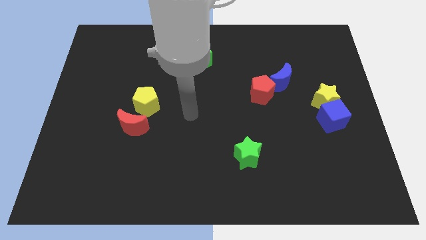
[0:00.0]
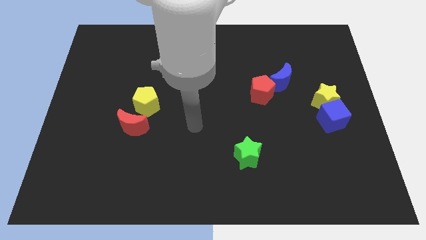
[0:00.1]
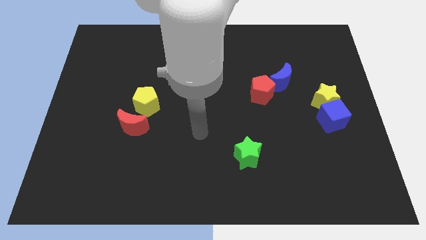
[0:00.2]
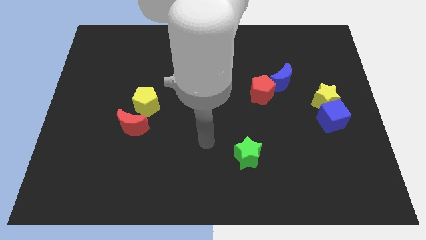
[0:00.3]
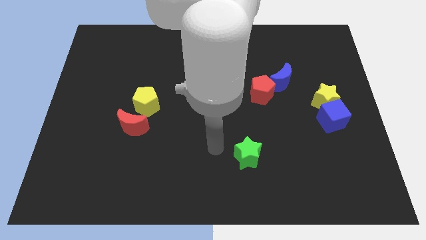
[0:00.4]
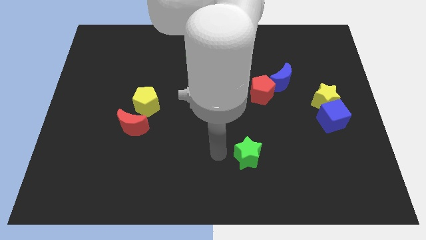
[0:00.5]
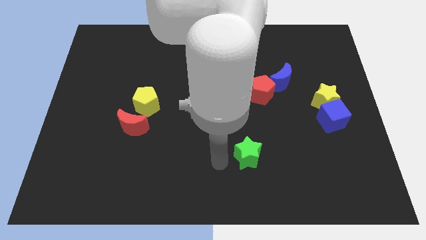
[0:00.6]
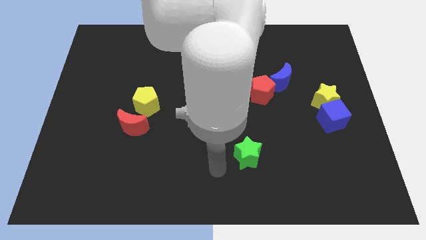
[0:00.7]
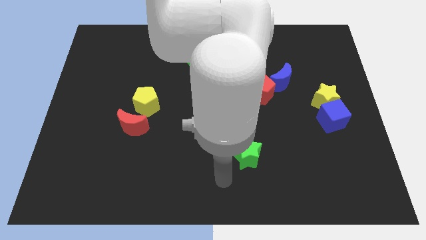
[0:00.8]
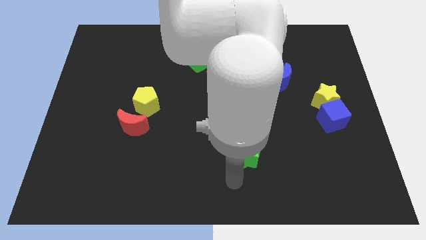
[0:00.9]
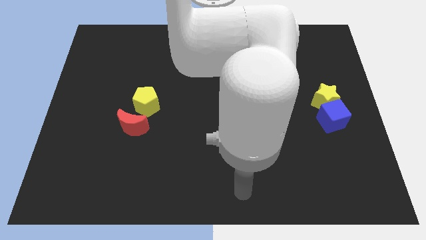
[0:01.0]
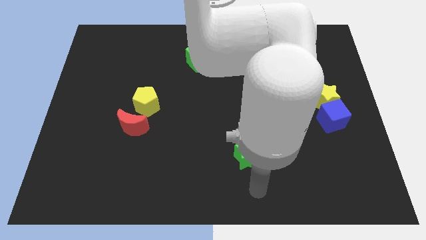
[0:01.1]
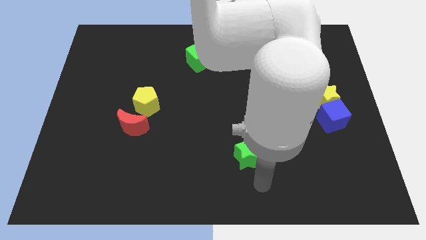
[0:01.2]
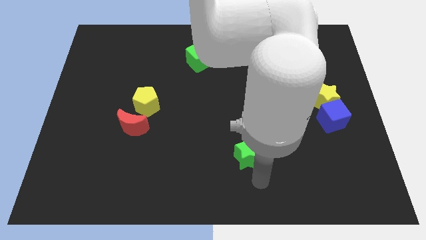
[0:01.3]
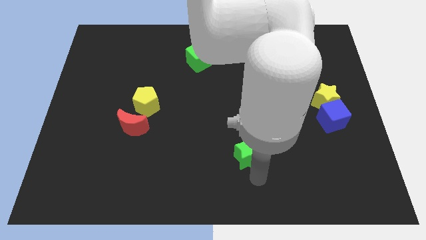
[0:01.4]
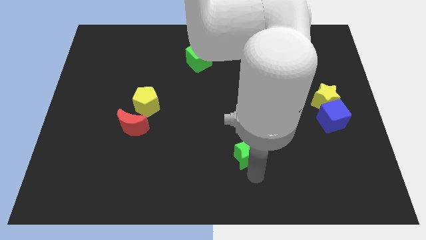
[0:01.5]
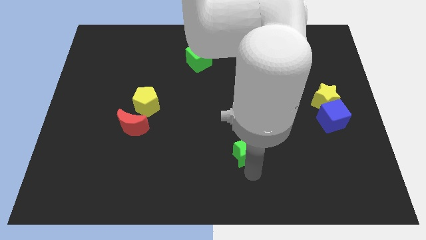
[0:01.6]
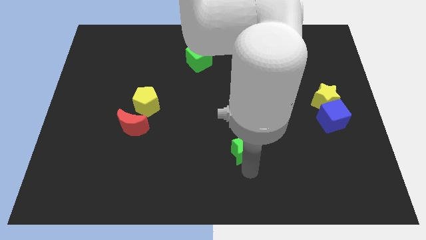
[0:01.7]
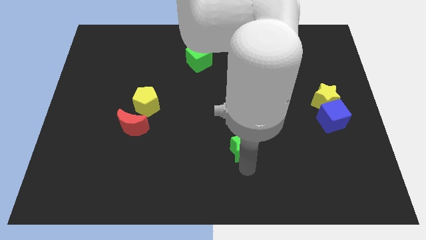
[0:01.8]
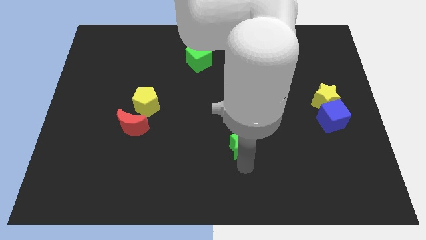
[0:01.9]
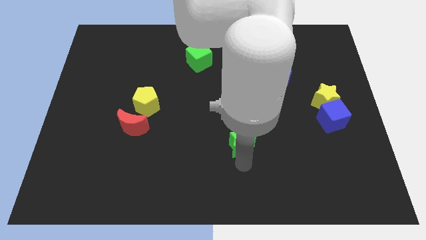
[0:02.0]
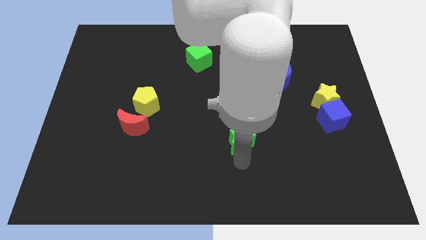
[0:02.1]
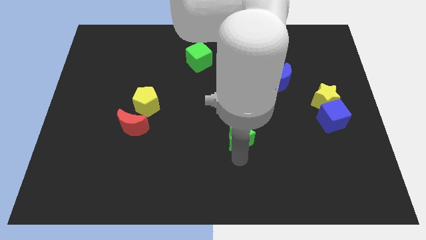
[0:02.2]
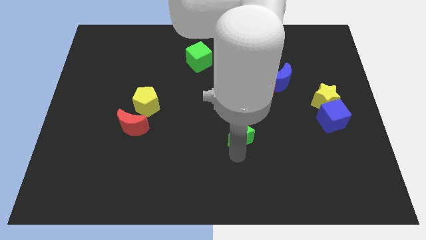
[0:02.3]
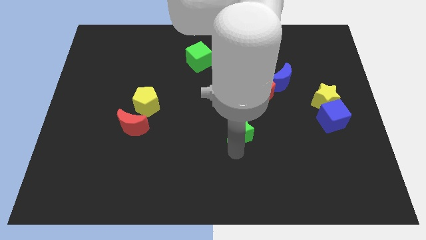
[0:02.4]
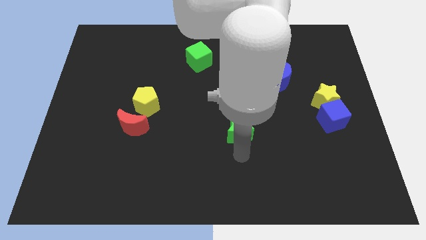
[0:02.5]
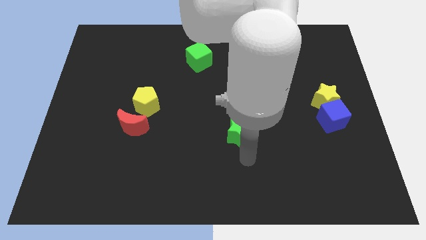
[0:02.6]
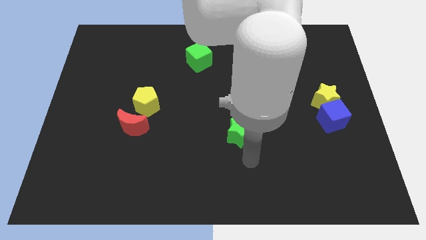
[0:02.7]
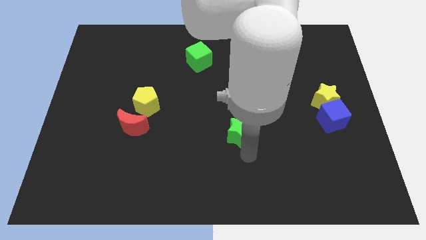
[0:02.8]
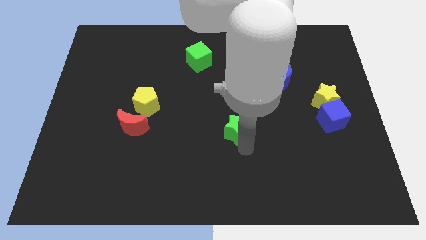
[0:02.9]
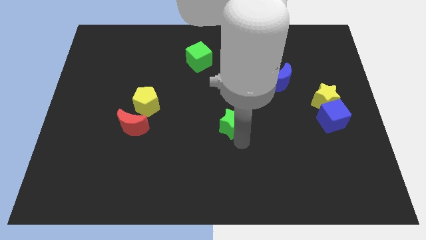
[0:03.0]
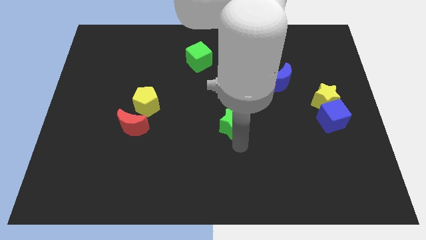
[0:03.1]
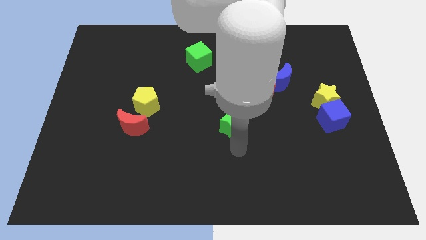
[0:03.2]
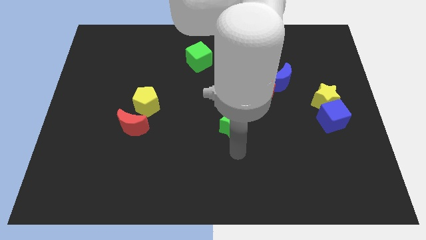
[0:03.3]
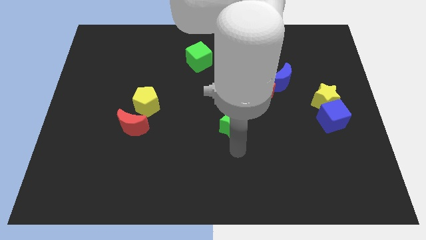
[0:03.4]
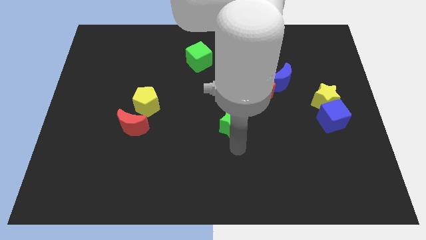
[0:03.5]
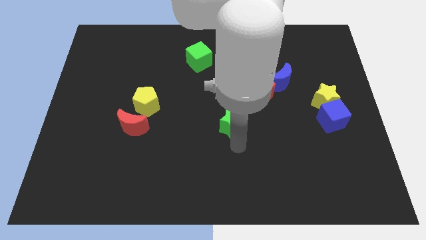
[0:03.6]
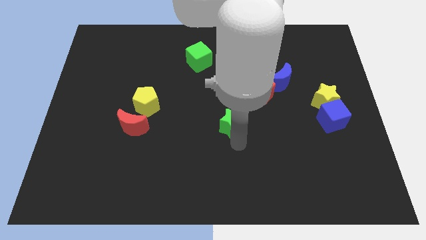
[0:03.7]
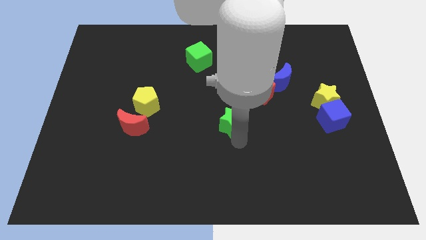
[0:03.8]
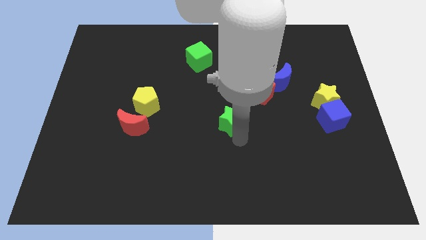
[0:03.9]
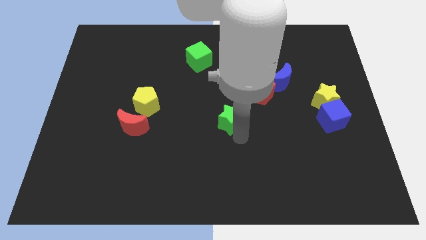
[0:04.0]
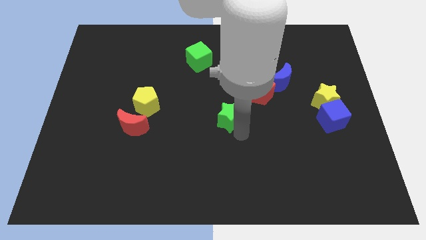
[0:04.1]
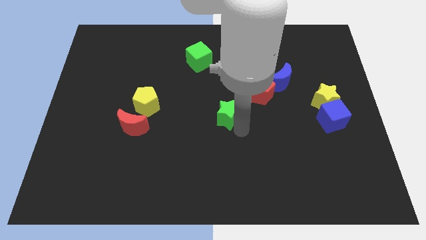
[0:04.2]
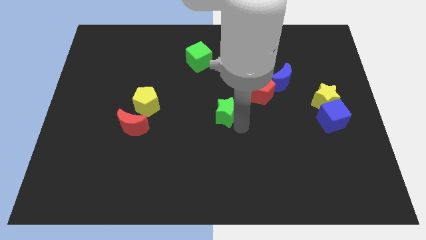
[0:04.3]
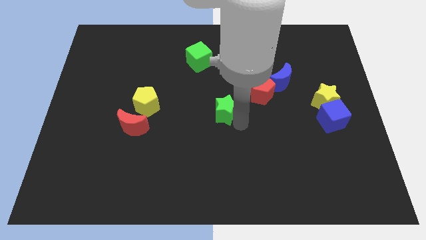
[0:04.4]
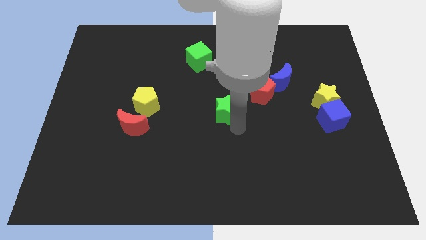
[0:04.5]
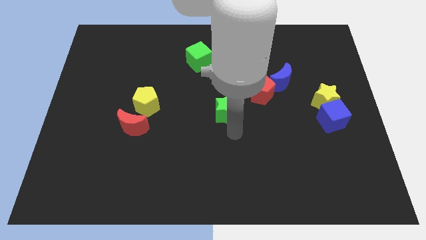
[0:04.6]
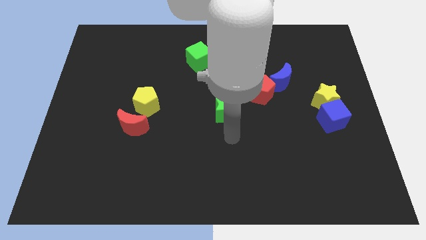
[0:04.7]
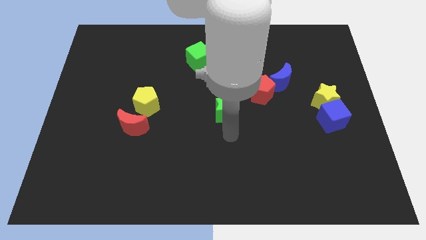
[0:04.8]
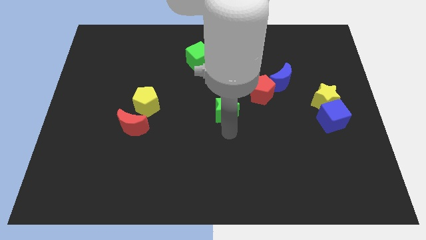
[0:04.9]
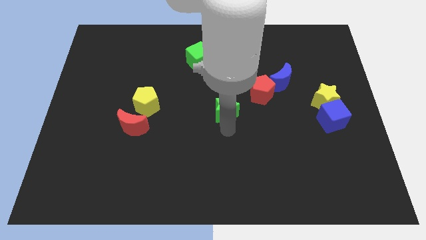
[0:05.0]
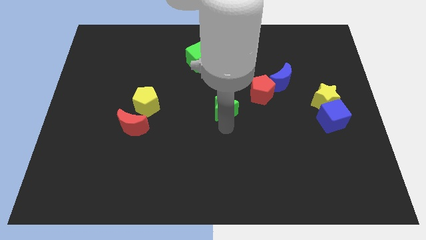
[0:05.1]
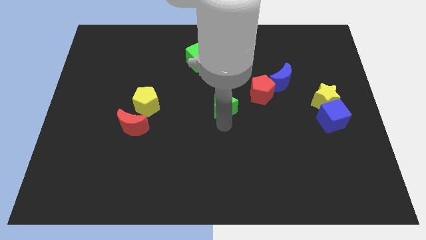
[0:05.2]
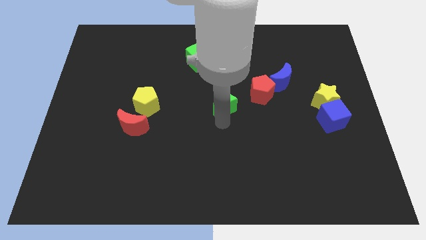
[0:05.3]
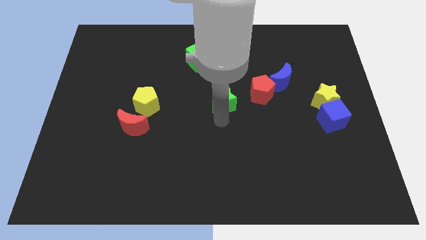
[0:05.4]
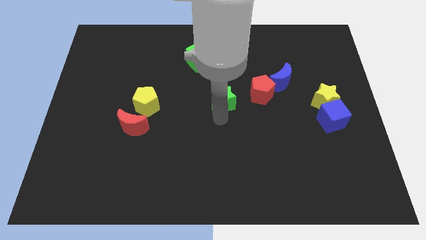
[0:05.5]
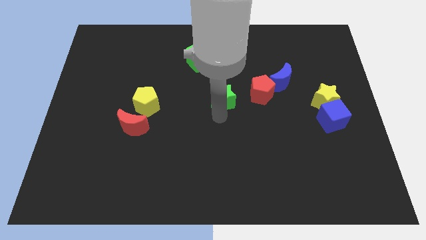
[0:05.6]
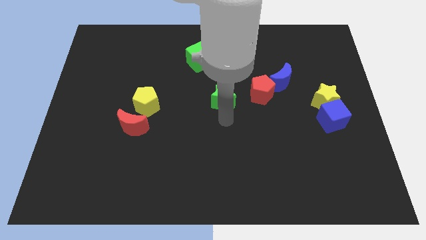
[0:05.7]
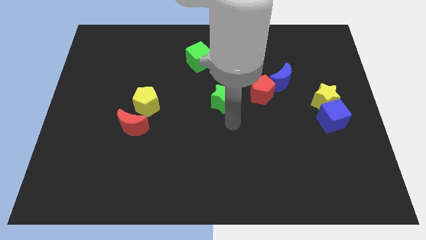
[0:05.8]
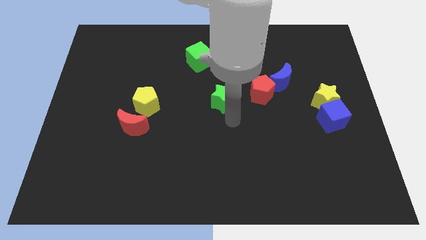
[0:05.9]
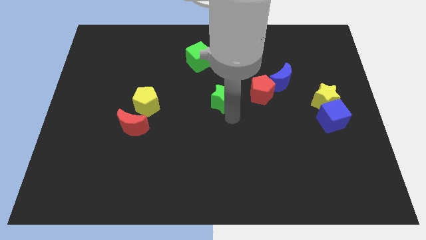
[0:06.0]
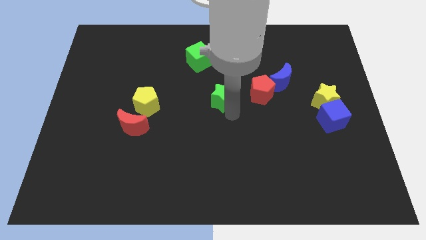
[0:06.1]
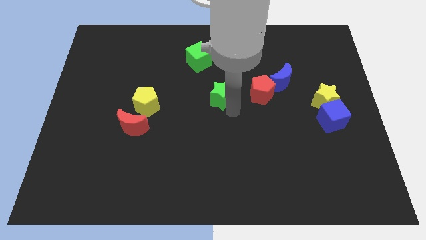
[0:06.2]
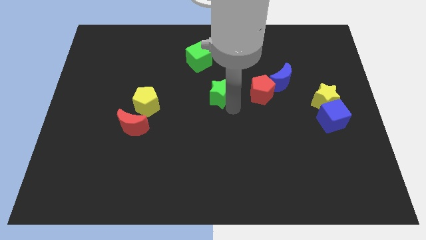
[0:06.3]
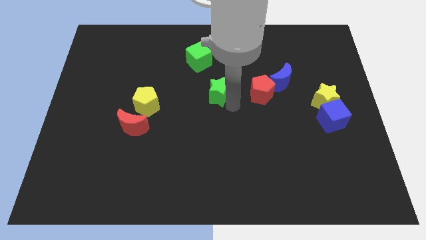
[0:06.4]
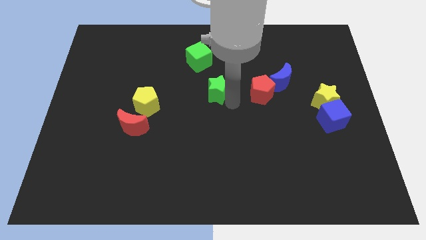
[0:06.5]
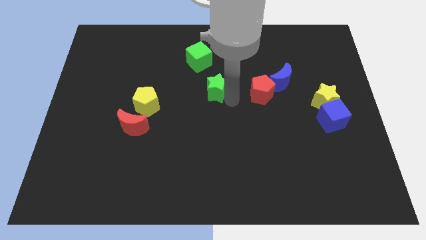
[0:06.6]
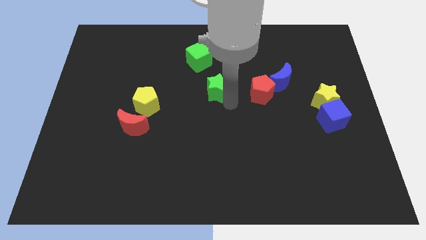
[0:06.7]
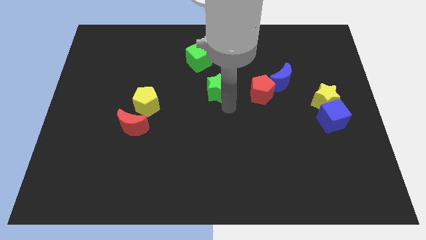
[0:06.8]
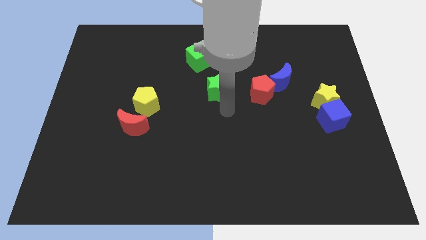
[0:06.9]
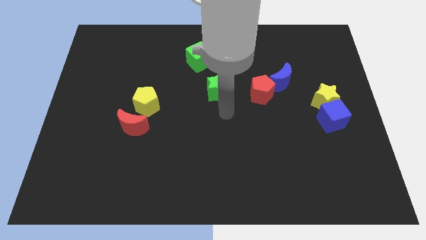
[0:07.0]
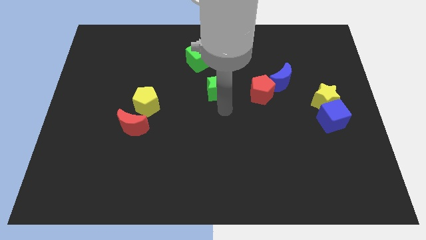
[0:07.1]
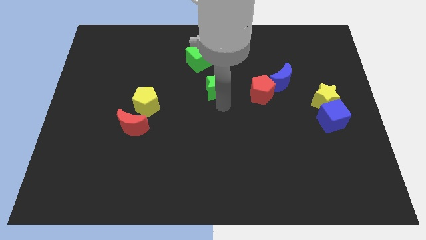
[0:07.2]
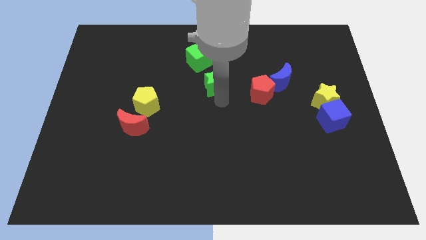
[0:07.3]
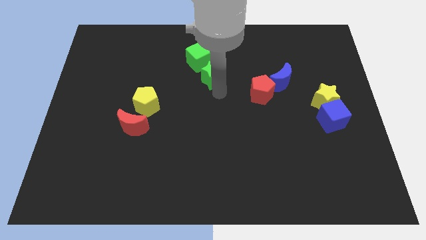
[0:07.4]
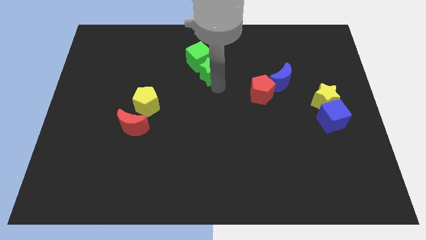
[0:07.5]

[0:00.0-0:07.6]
push the green star to the green cube
